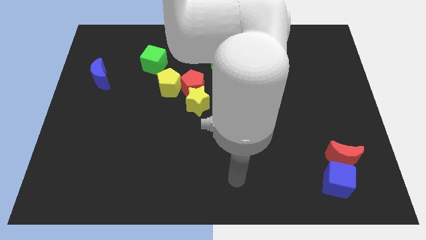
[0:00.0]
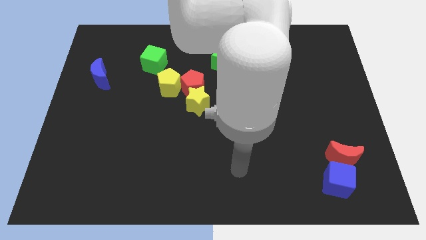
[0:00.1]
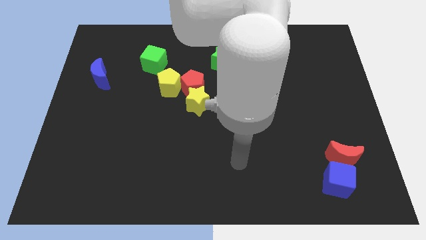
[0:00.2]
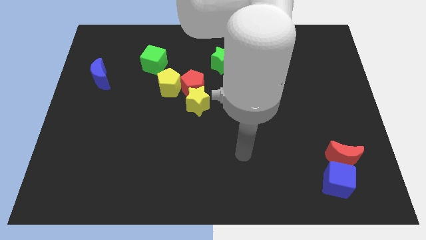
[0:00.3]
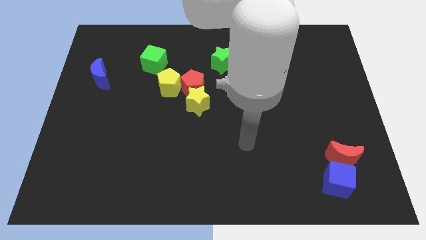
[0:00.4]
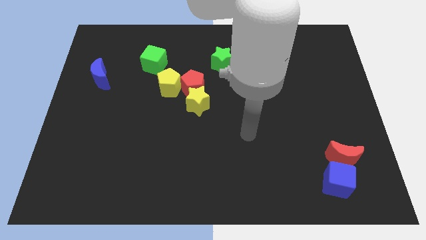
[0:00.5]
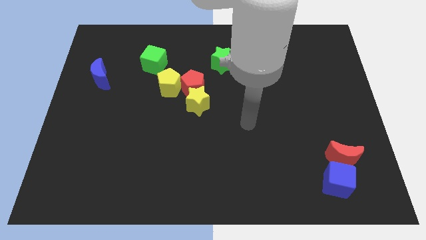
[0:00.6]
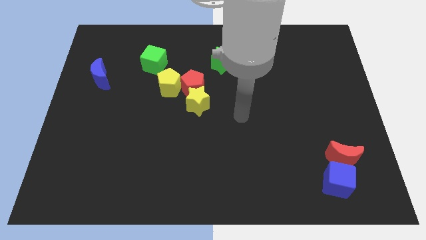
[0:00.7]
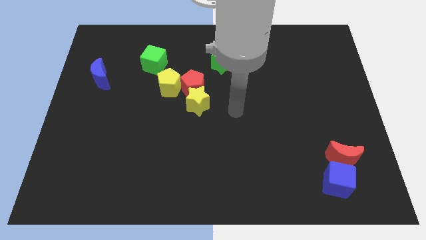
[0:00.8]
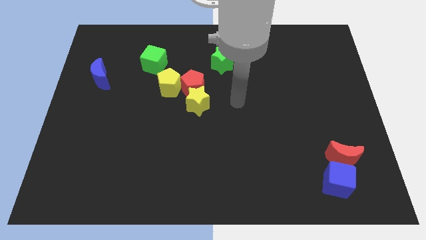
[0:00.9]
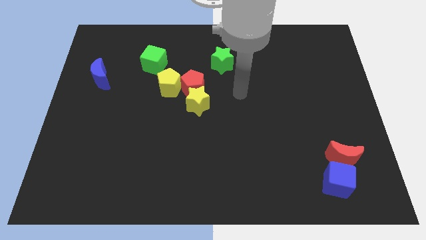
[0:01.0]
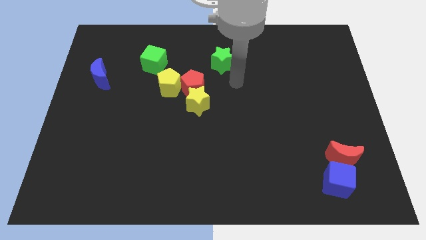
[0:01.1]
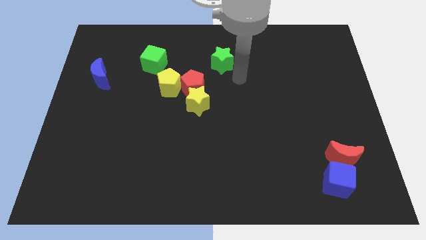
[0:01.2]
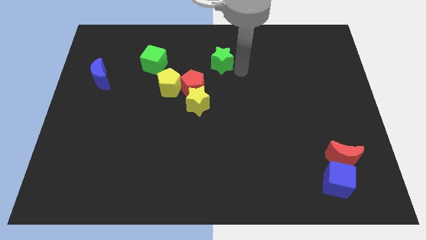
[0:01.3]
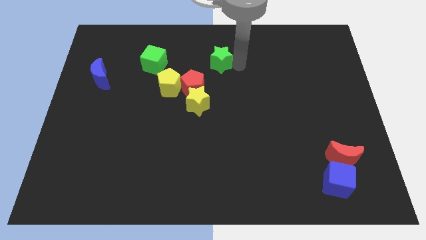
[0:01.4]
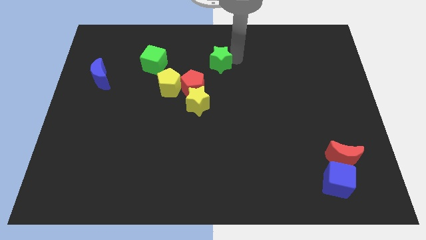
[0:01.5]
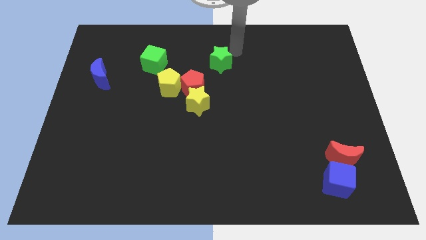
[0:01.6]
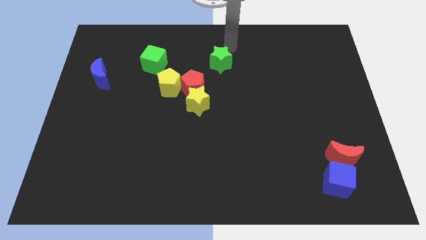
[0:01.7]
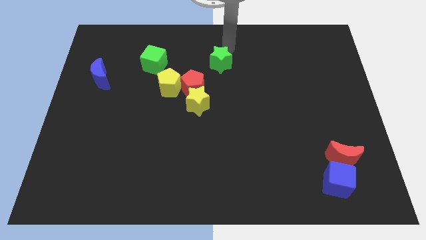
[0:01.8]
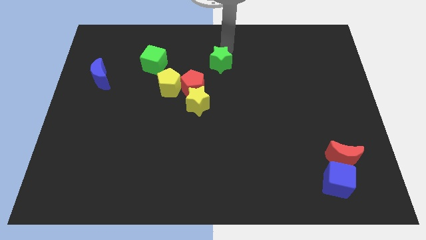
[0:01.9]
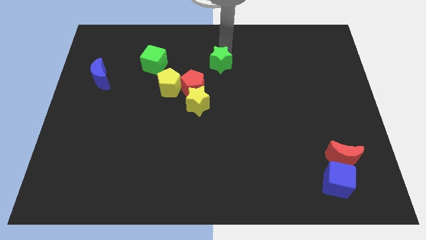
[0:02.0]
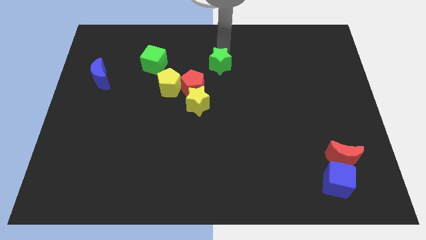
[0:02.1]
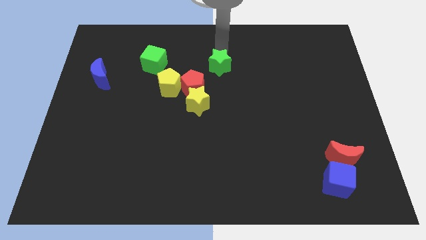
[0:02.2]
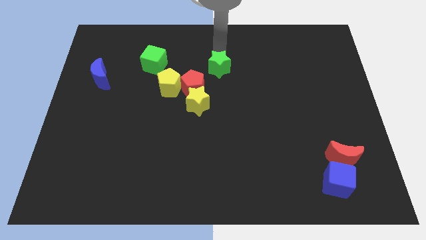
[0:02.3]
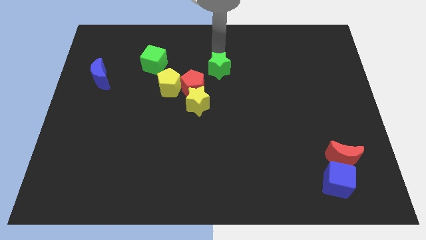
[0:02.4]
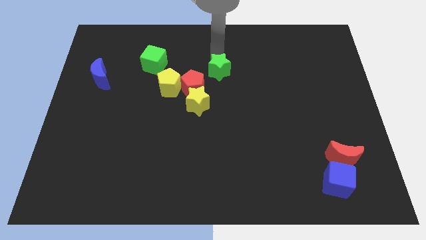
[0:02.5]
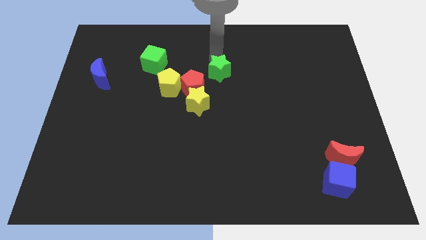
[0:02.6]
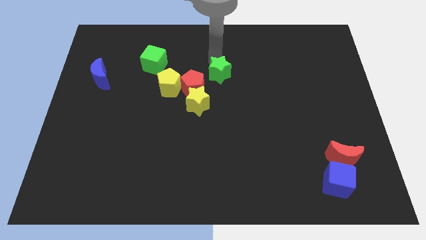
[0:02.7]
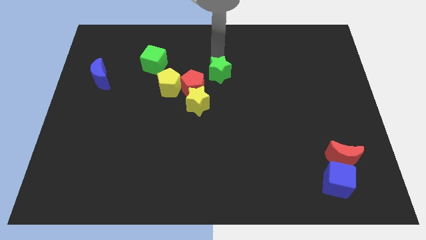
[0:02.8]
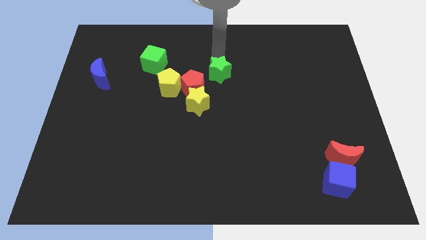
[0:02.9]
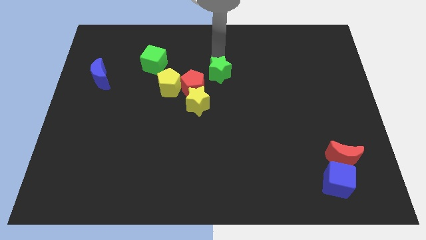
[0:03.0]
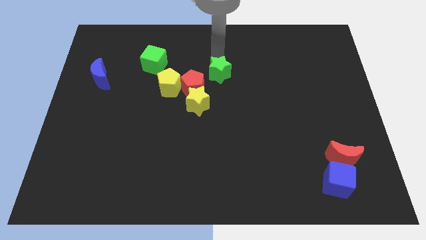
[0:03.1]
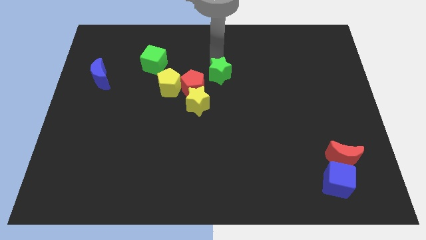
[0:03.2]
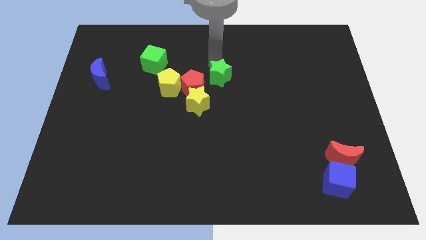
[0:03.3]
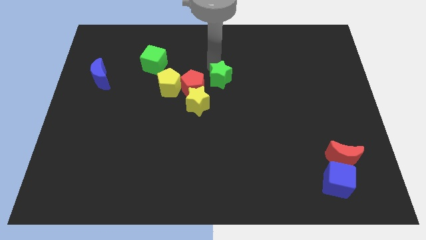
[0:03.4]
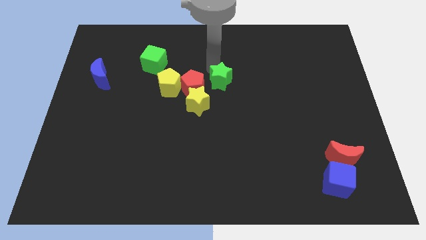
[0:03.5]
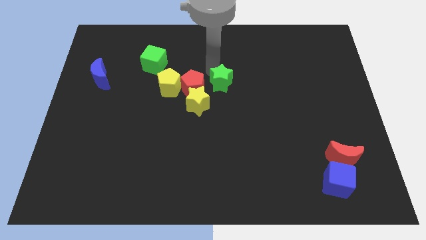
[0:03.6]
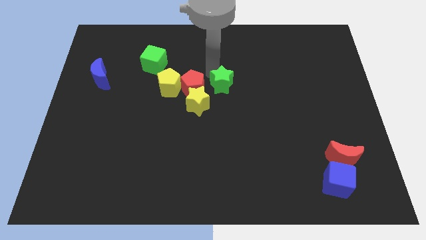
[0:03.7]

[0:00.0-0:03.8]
slide the green star a little bit down

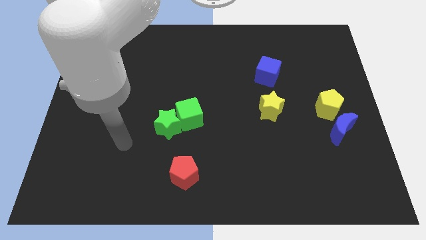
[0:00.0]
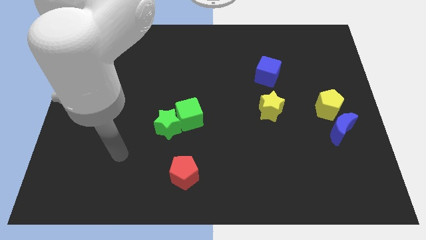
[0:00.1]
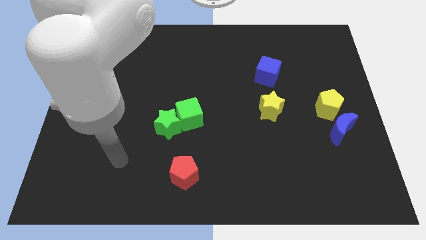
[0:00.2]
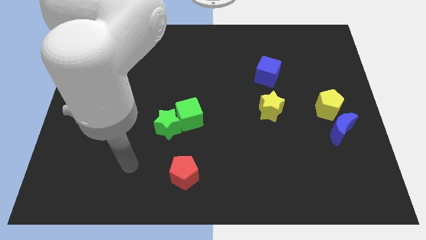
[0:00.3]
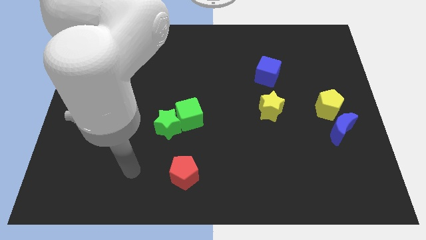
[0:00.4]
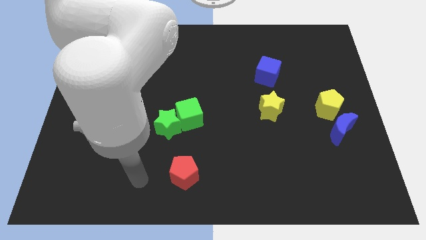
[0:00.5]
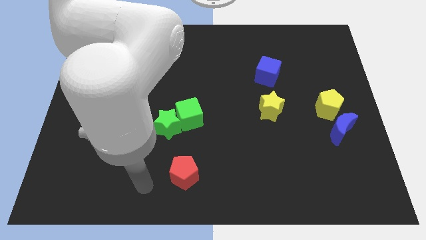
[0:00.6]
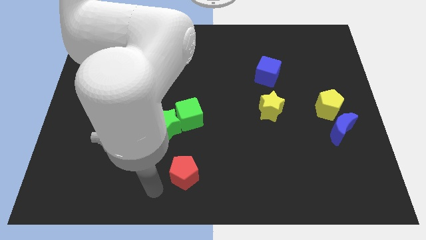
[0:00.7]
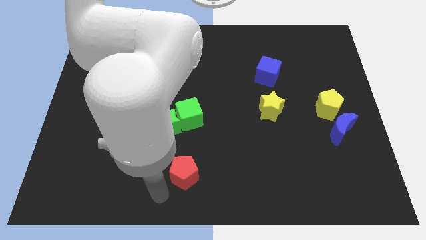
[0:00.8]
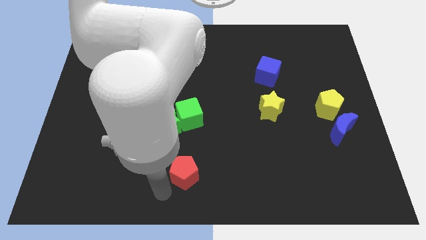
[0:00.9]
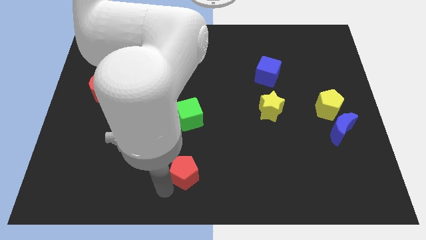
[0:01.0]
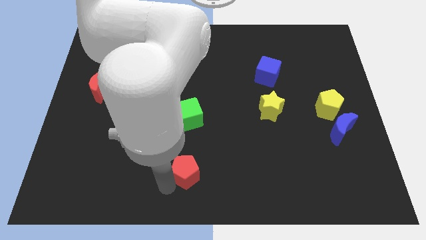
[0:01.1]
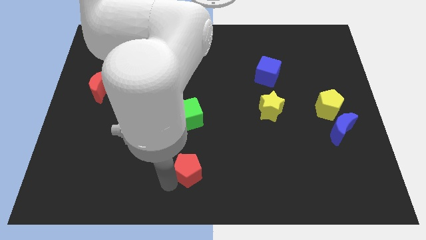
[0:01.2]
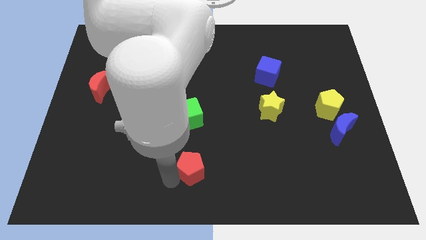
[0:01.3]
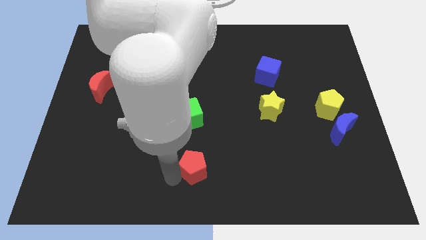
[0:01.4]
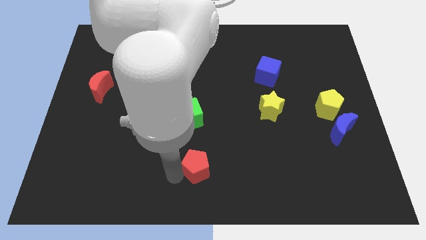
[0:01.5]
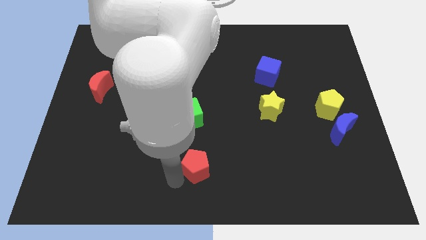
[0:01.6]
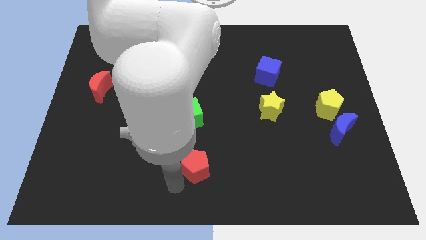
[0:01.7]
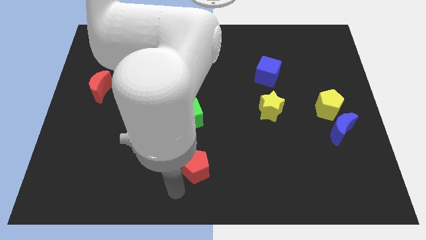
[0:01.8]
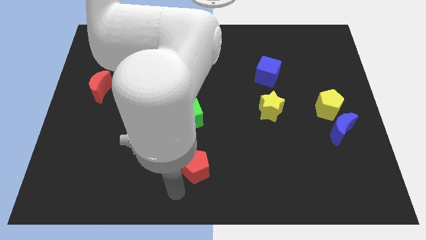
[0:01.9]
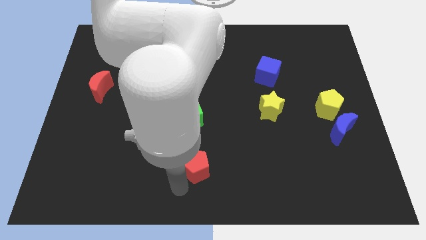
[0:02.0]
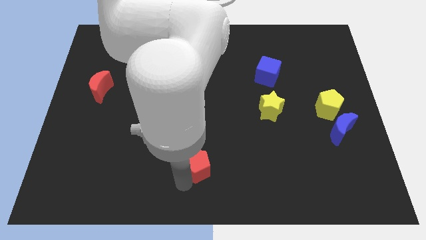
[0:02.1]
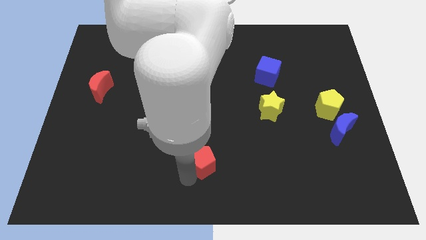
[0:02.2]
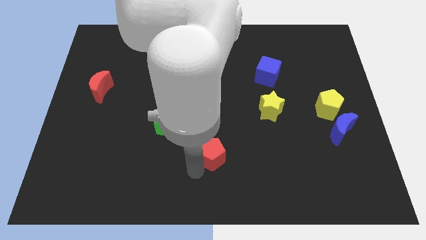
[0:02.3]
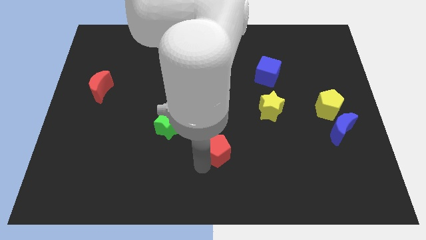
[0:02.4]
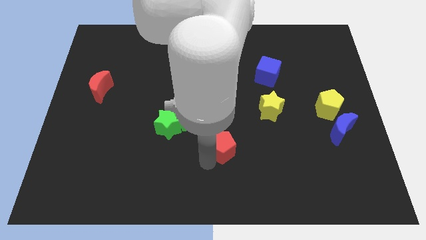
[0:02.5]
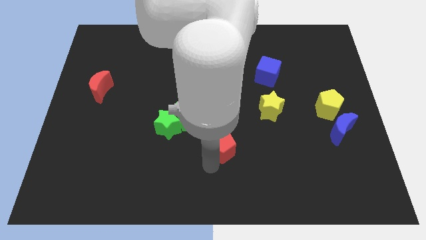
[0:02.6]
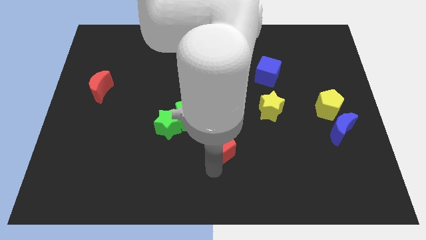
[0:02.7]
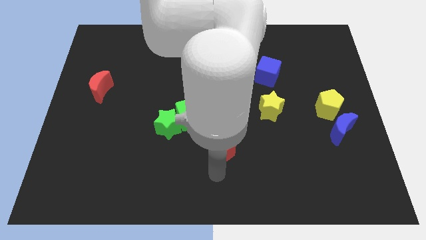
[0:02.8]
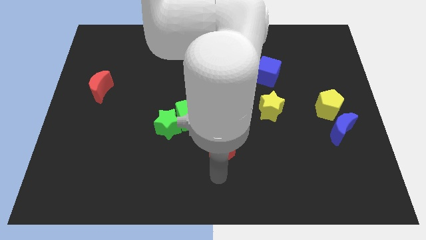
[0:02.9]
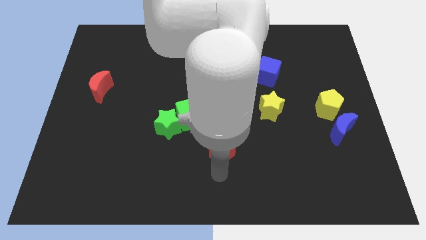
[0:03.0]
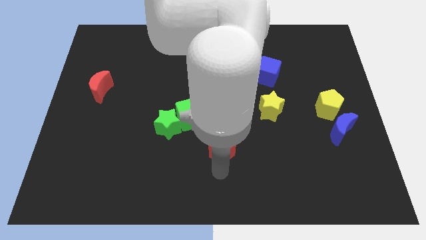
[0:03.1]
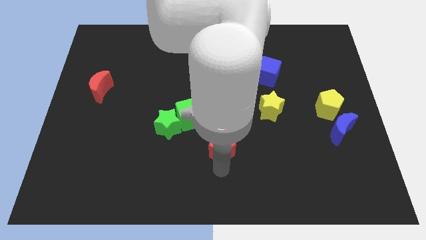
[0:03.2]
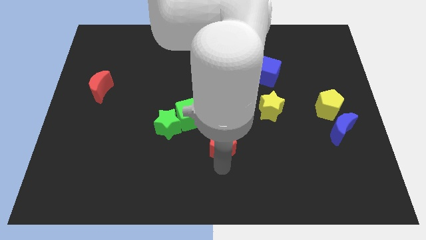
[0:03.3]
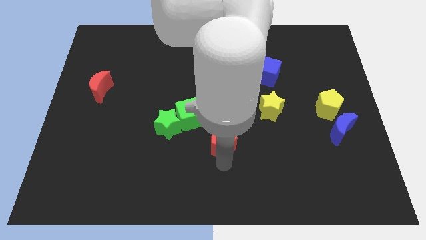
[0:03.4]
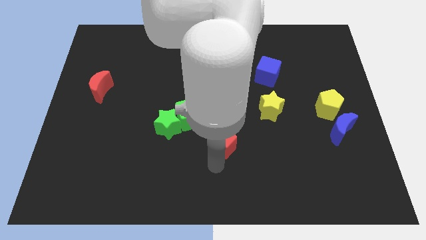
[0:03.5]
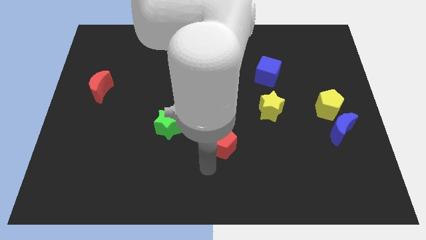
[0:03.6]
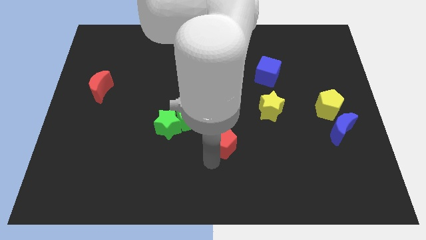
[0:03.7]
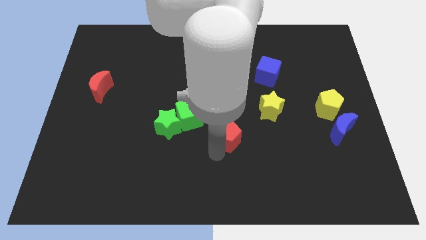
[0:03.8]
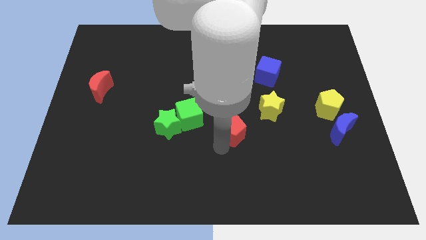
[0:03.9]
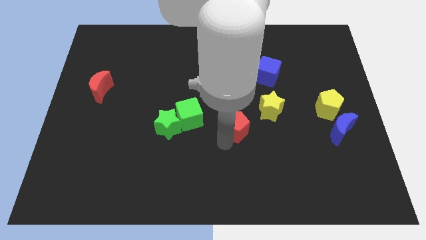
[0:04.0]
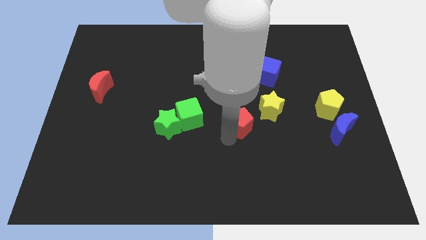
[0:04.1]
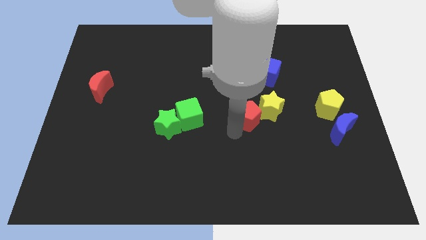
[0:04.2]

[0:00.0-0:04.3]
push the red pentagon up and then right

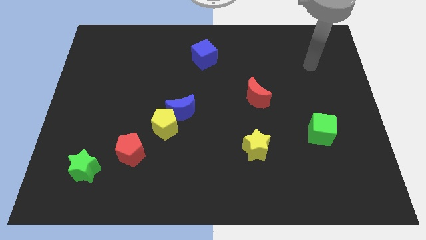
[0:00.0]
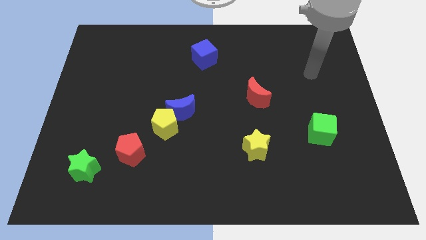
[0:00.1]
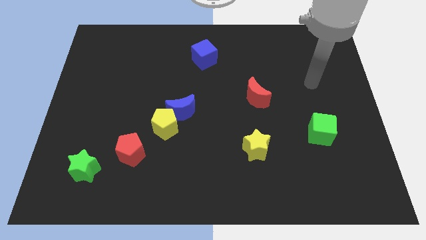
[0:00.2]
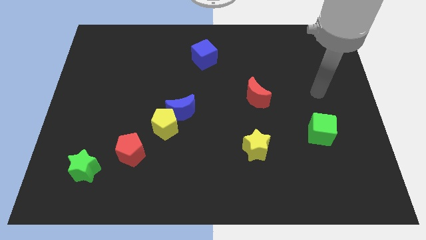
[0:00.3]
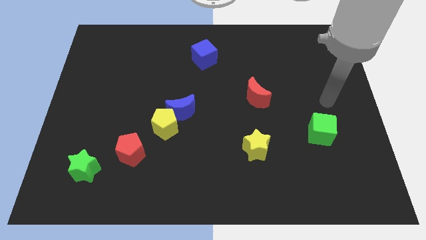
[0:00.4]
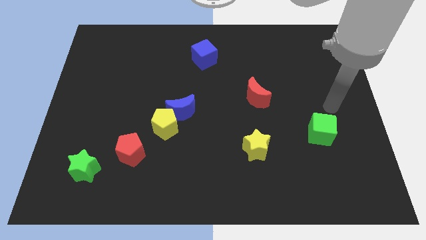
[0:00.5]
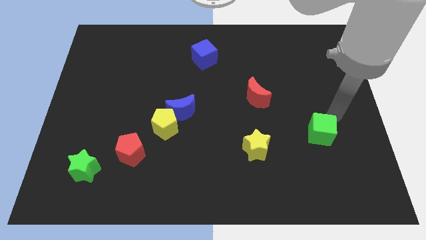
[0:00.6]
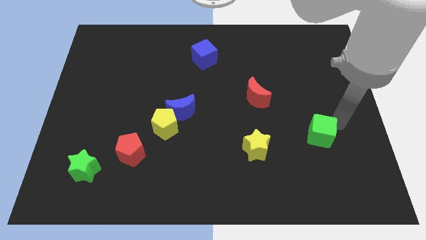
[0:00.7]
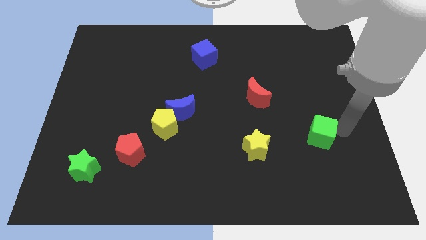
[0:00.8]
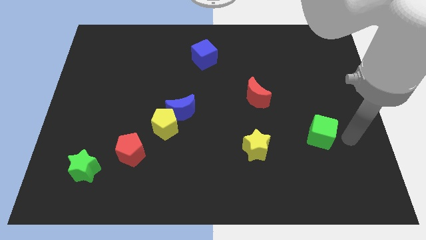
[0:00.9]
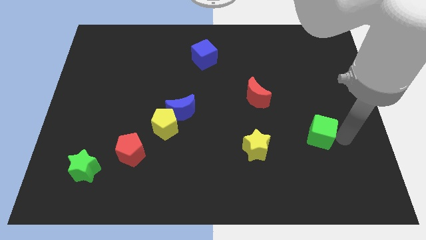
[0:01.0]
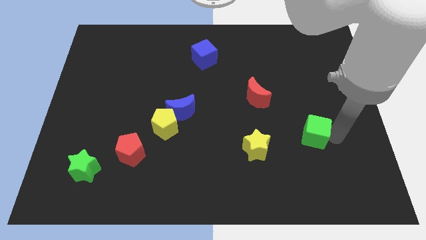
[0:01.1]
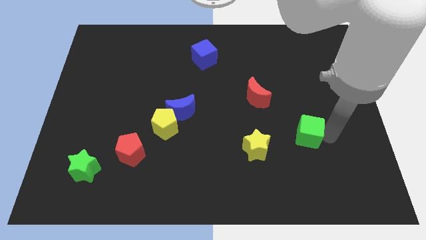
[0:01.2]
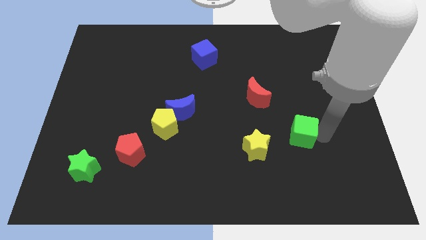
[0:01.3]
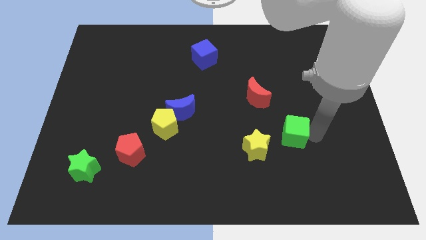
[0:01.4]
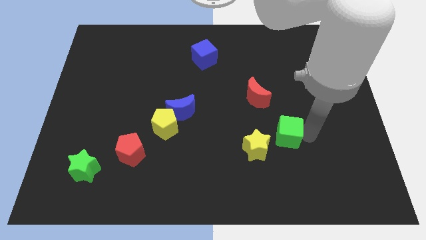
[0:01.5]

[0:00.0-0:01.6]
push the green cube a little bit to the left
